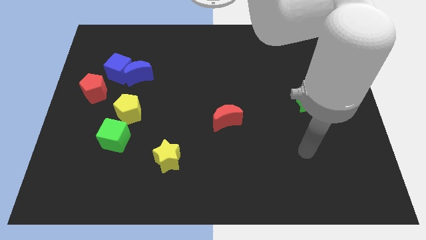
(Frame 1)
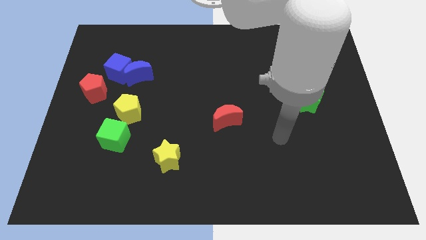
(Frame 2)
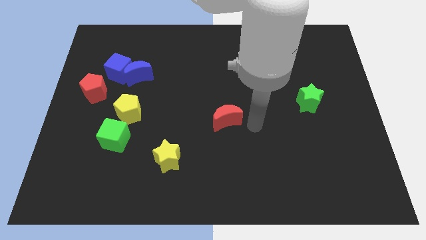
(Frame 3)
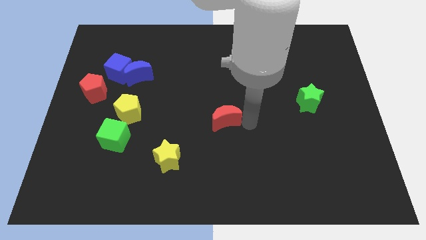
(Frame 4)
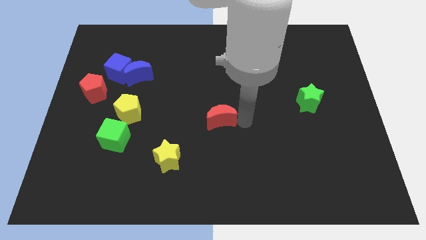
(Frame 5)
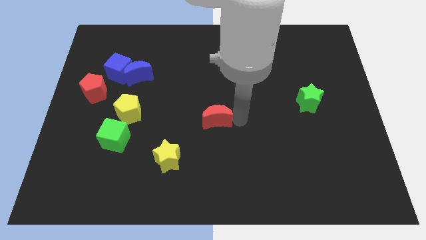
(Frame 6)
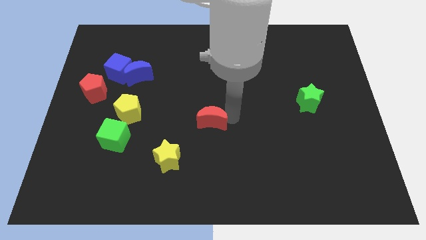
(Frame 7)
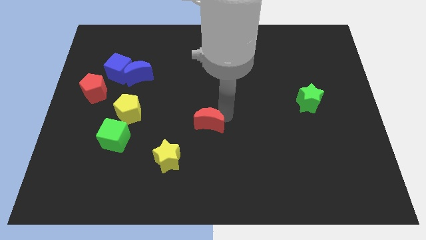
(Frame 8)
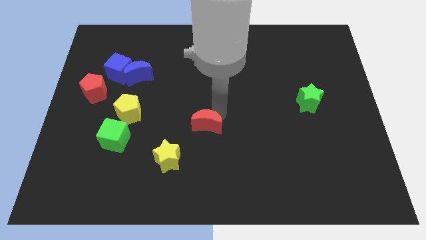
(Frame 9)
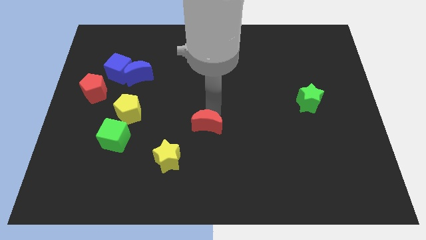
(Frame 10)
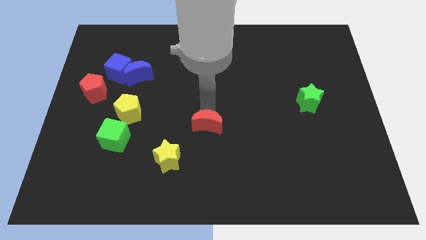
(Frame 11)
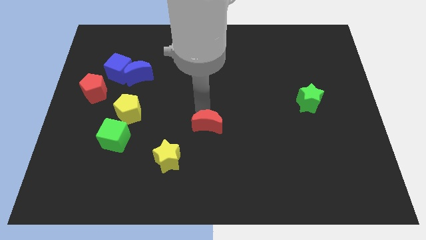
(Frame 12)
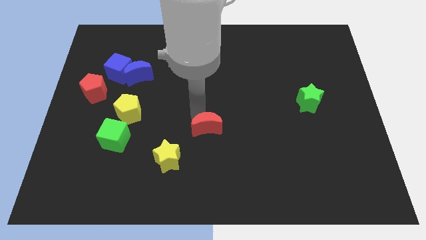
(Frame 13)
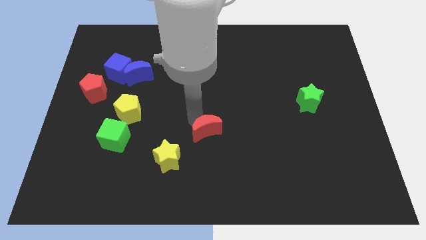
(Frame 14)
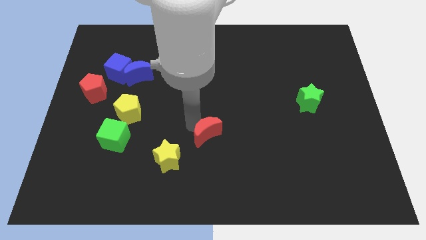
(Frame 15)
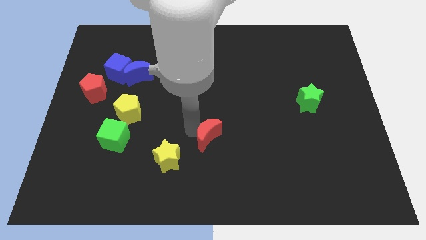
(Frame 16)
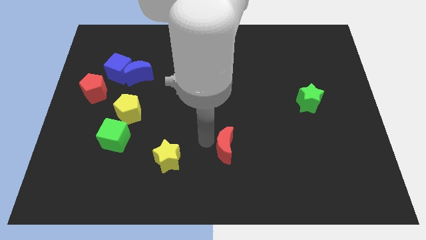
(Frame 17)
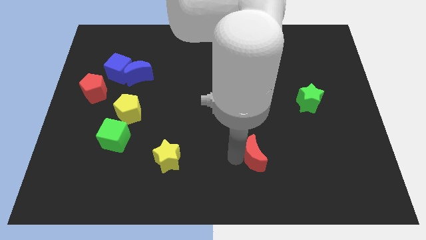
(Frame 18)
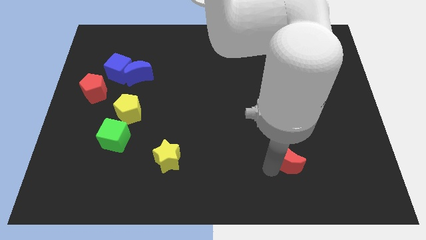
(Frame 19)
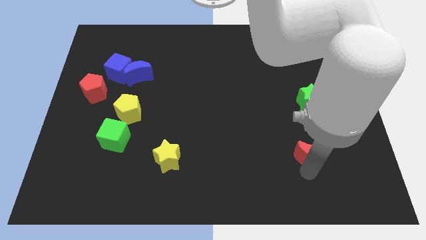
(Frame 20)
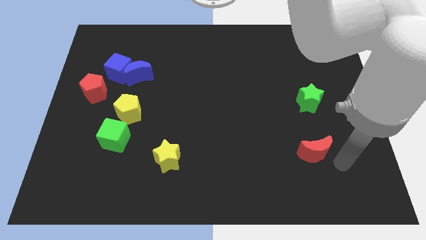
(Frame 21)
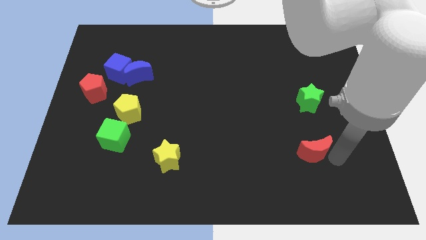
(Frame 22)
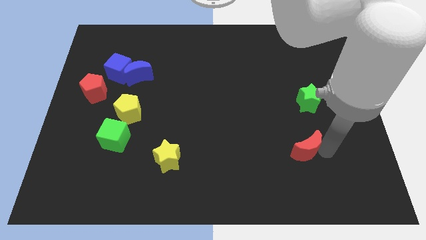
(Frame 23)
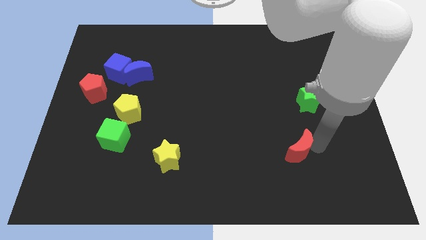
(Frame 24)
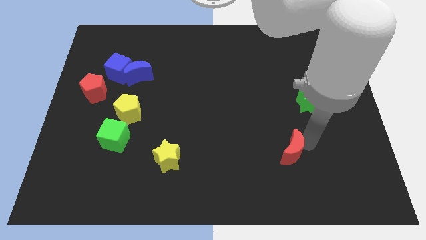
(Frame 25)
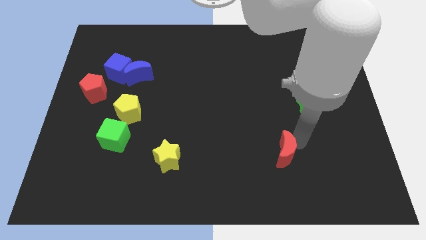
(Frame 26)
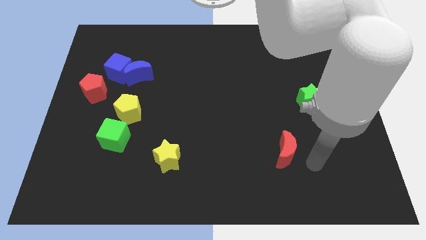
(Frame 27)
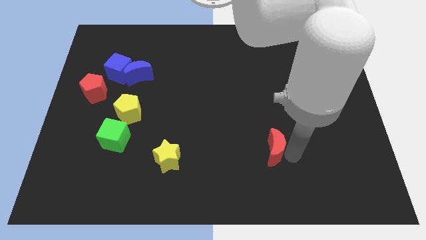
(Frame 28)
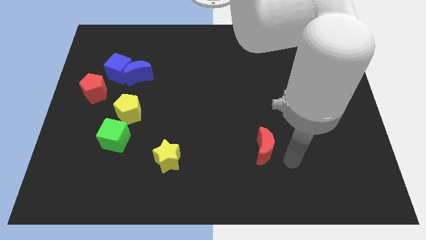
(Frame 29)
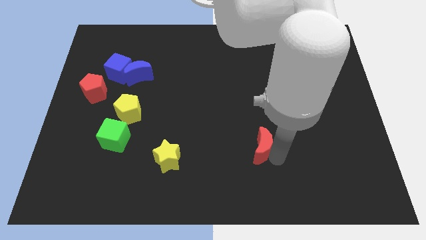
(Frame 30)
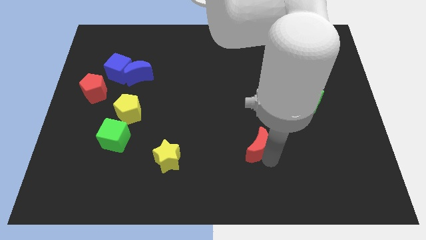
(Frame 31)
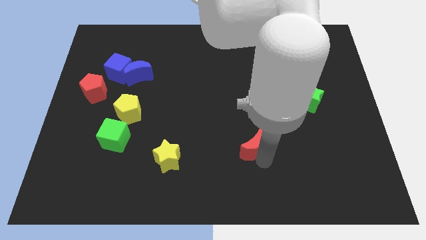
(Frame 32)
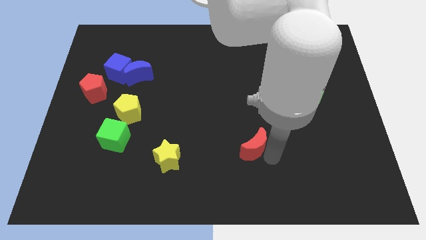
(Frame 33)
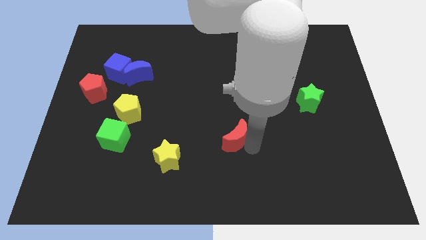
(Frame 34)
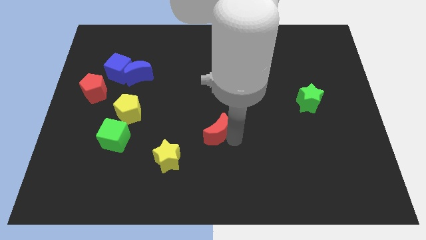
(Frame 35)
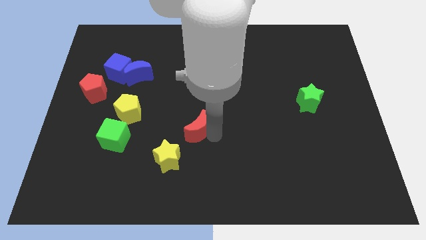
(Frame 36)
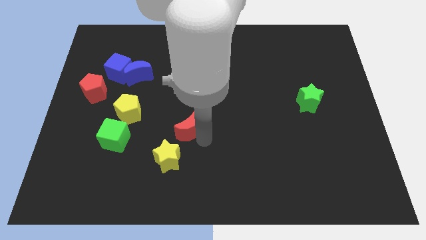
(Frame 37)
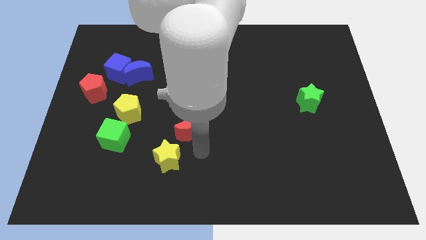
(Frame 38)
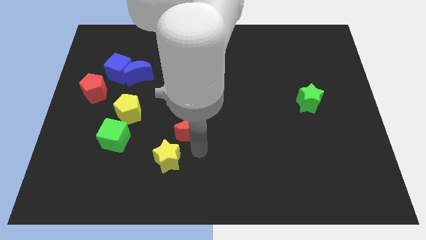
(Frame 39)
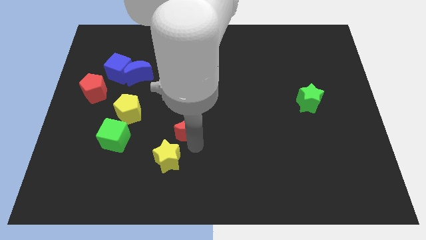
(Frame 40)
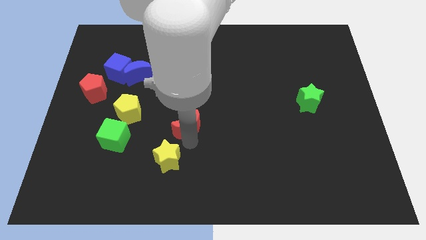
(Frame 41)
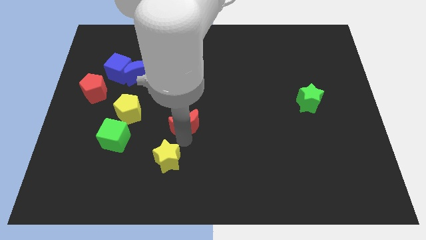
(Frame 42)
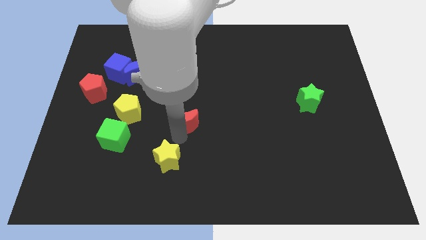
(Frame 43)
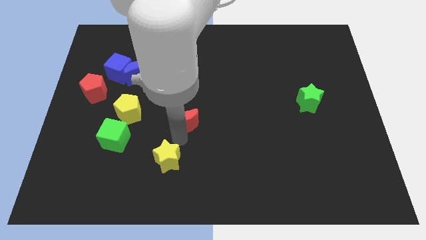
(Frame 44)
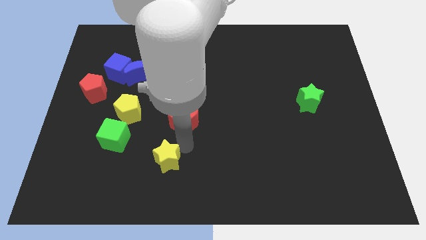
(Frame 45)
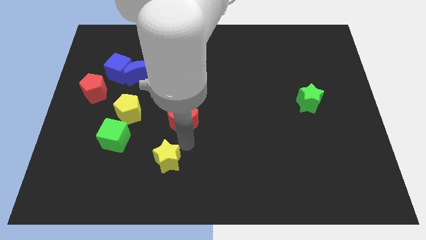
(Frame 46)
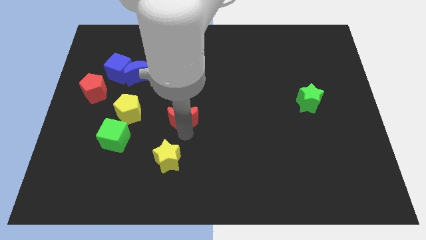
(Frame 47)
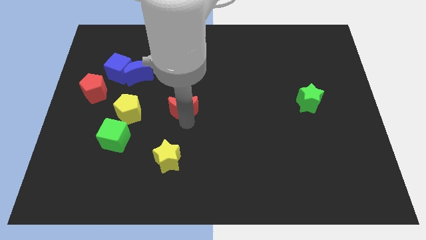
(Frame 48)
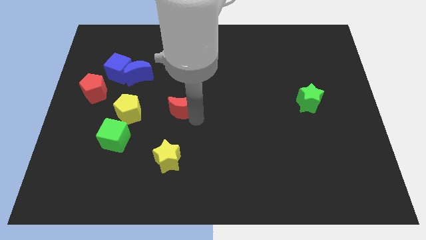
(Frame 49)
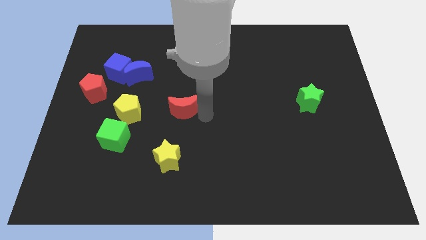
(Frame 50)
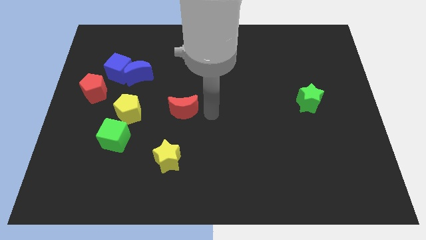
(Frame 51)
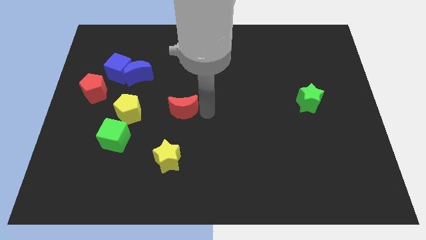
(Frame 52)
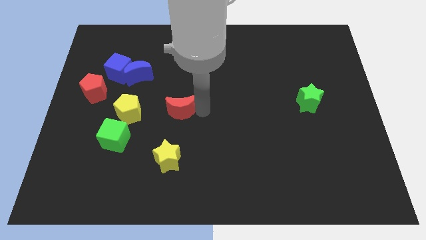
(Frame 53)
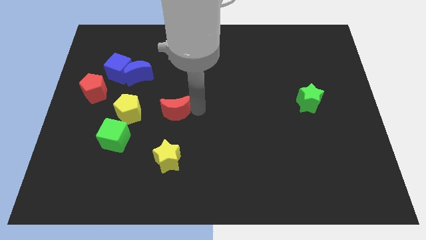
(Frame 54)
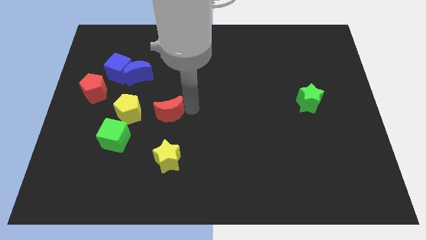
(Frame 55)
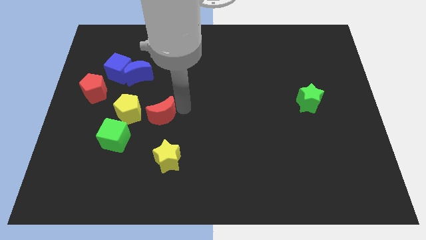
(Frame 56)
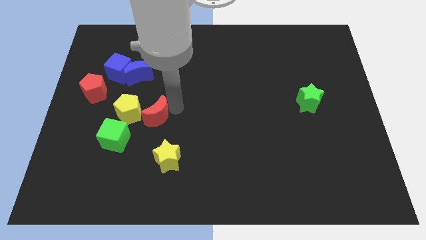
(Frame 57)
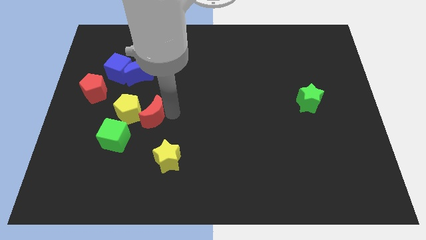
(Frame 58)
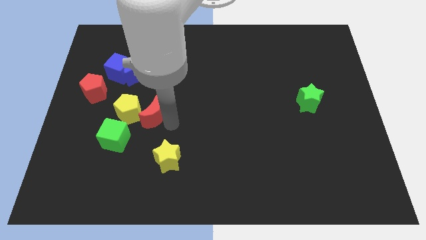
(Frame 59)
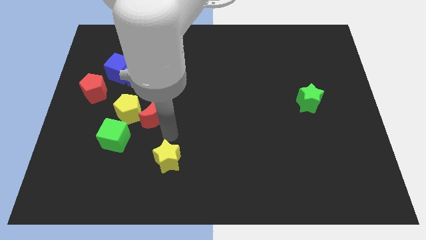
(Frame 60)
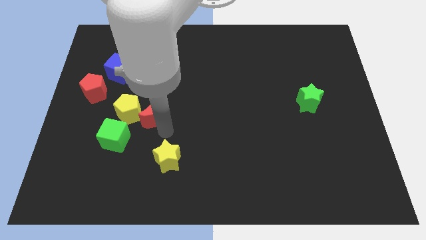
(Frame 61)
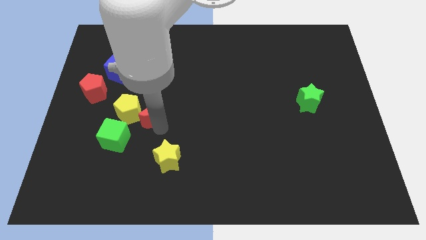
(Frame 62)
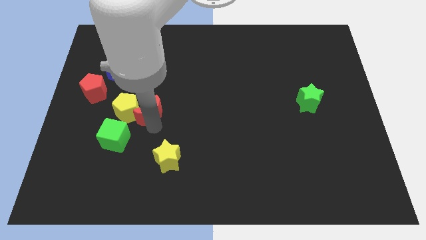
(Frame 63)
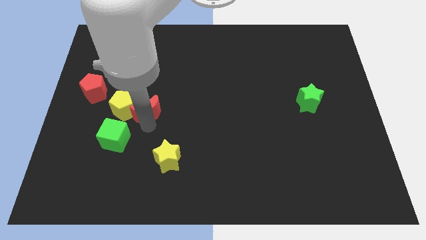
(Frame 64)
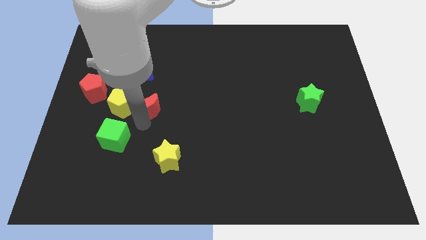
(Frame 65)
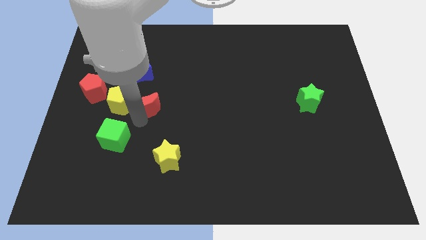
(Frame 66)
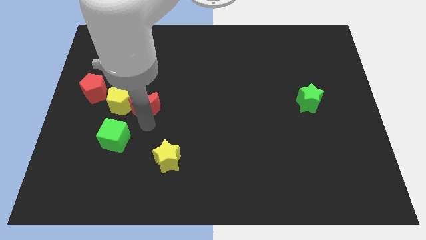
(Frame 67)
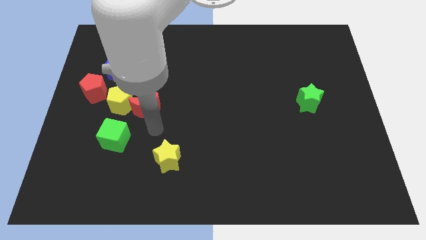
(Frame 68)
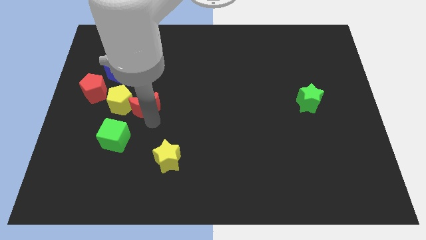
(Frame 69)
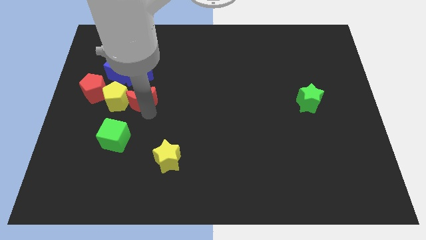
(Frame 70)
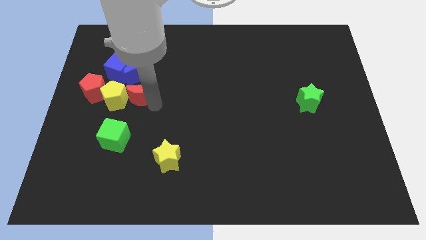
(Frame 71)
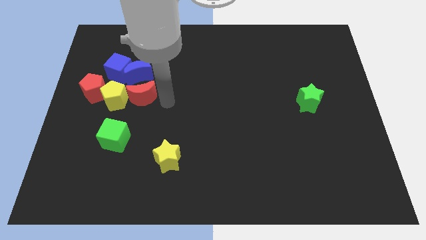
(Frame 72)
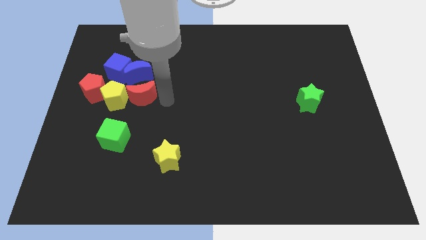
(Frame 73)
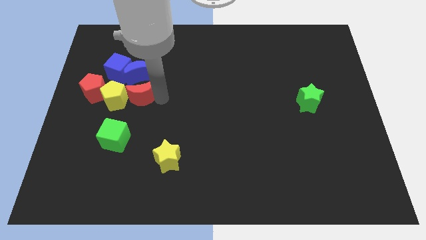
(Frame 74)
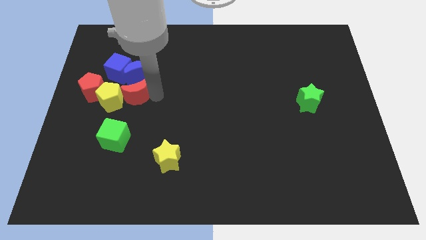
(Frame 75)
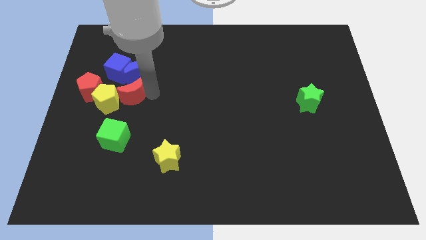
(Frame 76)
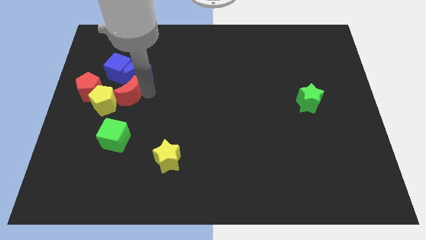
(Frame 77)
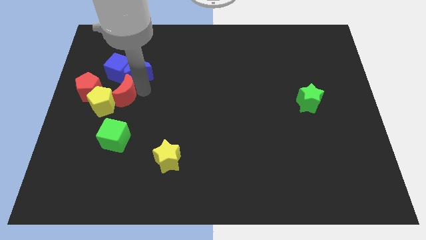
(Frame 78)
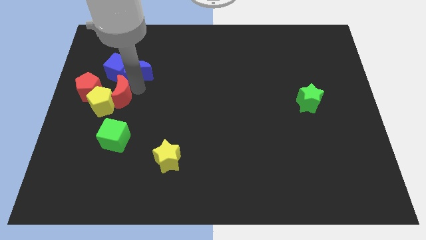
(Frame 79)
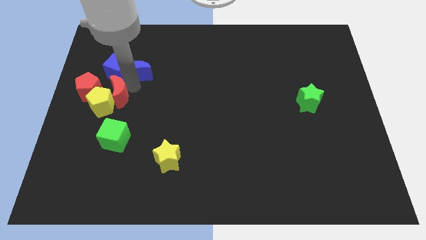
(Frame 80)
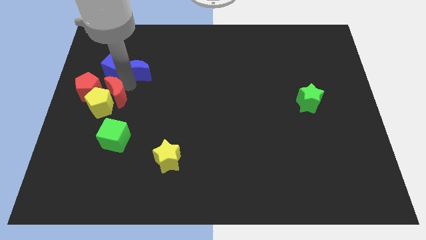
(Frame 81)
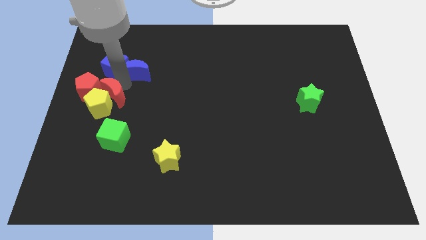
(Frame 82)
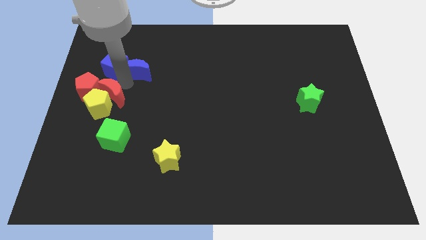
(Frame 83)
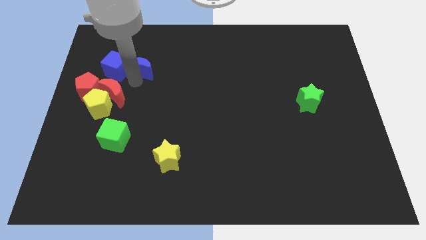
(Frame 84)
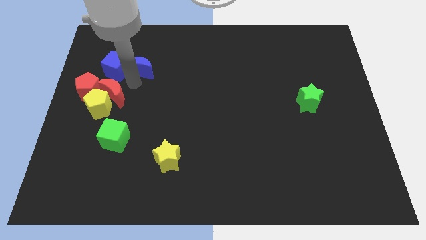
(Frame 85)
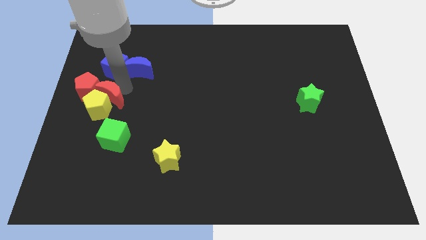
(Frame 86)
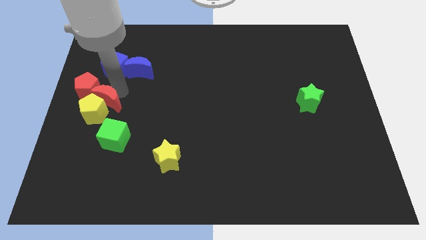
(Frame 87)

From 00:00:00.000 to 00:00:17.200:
put the red moon to the left side of the board
